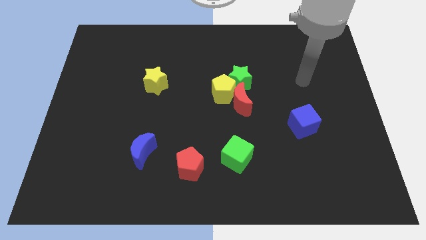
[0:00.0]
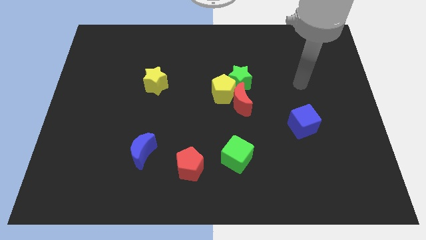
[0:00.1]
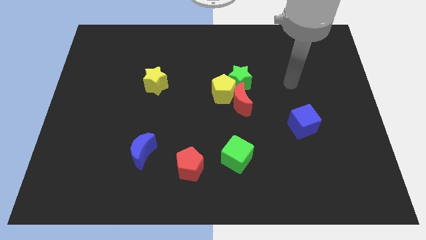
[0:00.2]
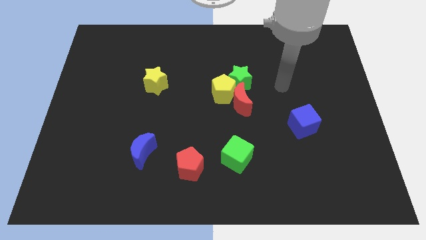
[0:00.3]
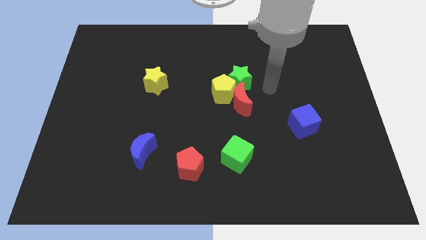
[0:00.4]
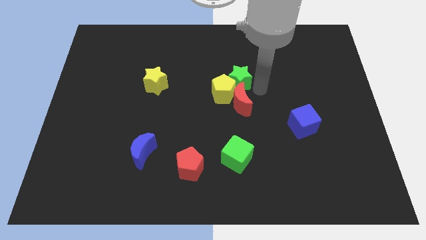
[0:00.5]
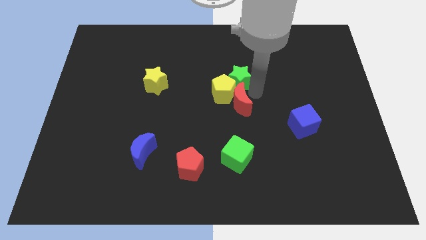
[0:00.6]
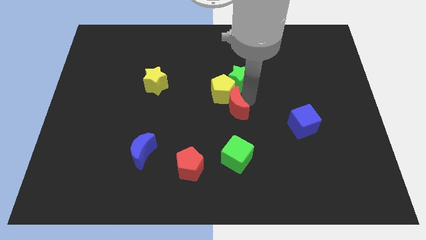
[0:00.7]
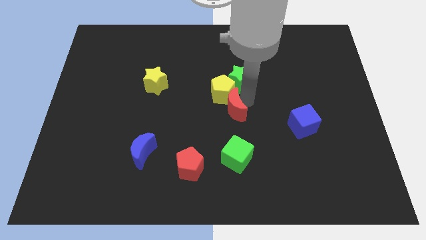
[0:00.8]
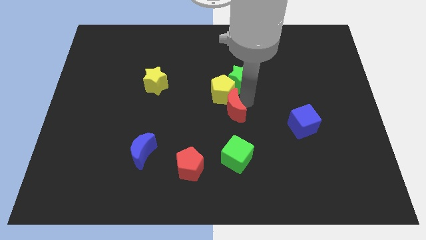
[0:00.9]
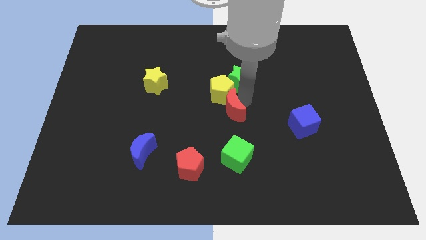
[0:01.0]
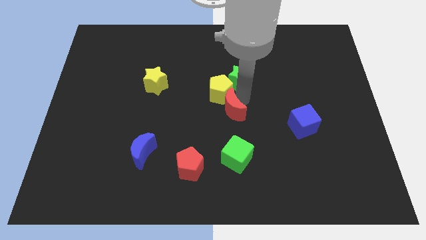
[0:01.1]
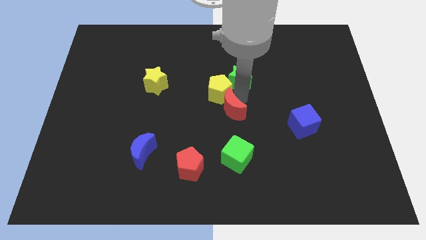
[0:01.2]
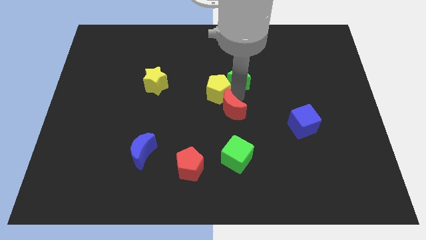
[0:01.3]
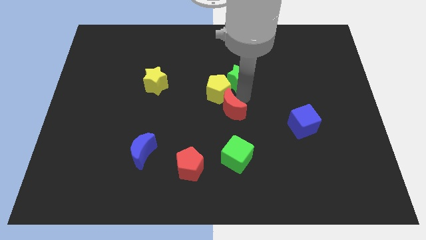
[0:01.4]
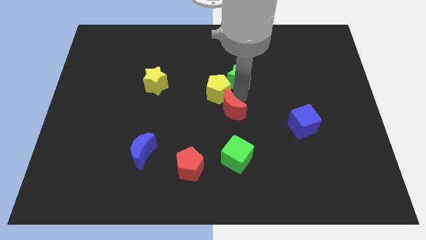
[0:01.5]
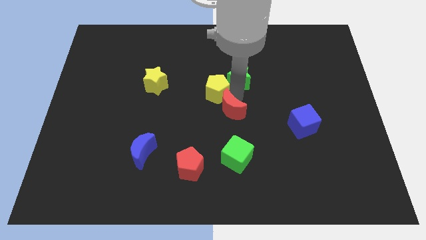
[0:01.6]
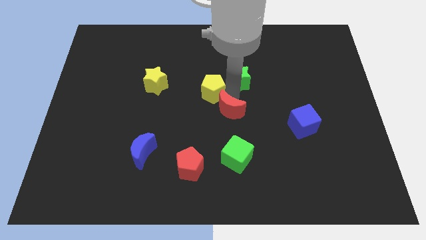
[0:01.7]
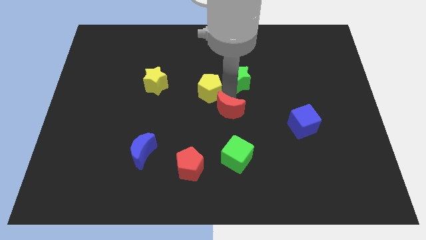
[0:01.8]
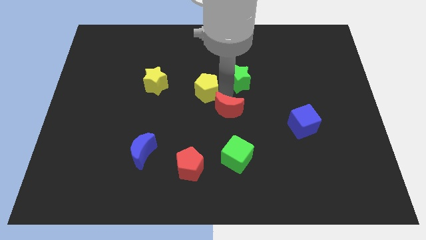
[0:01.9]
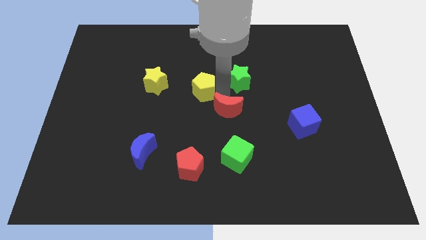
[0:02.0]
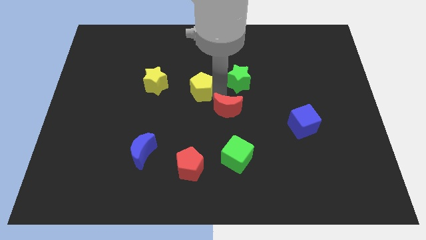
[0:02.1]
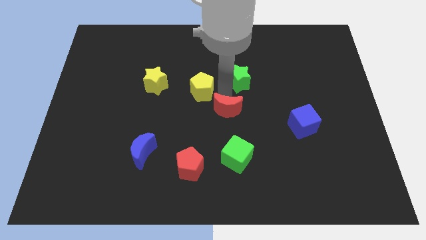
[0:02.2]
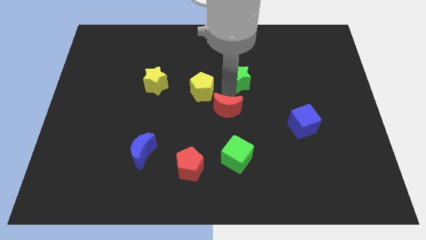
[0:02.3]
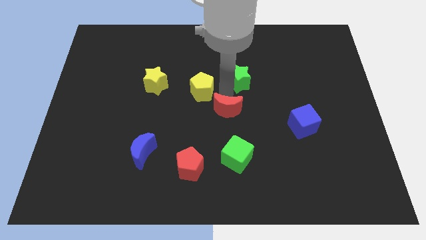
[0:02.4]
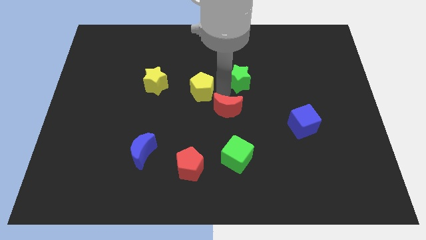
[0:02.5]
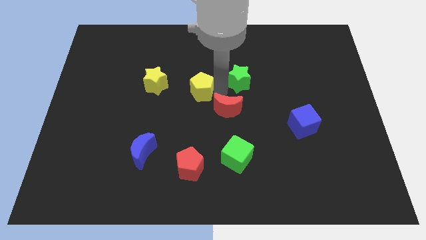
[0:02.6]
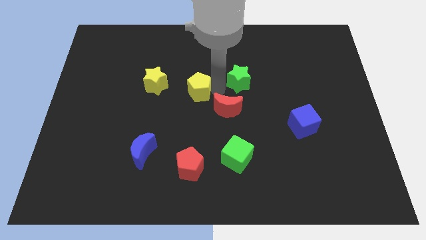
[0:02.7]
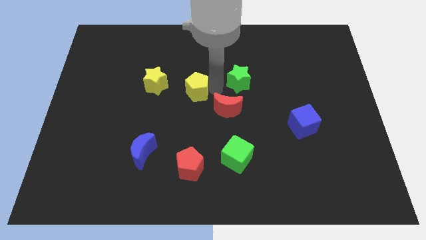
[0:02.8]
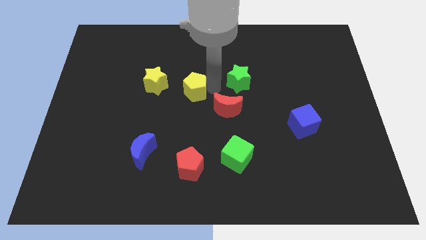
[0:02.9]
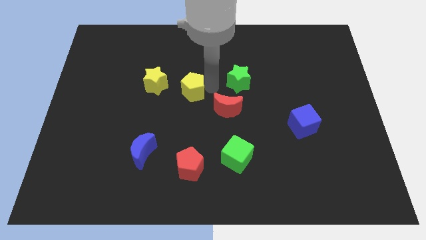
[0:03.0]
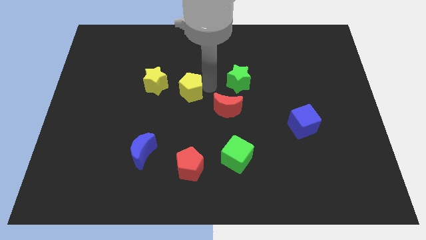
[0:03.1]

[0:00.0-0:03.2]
separate the yellow pentagon from the green star and red moon

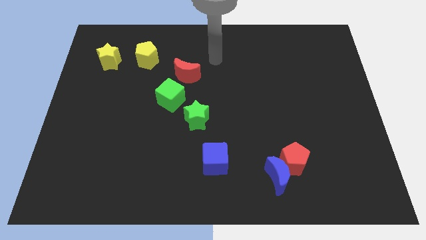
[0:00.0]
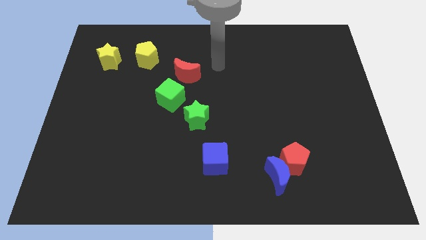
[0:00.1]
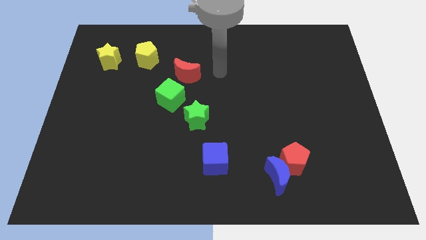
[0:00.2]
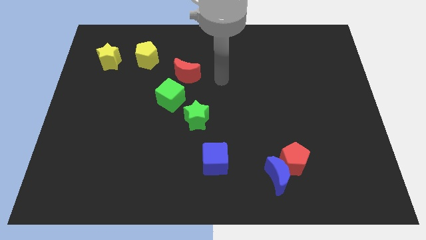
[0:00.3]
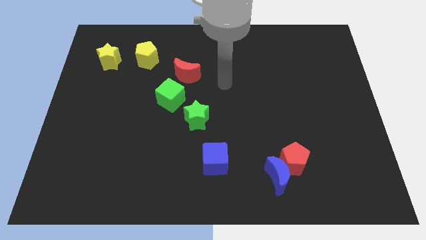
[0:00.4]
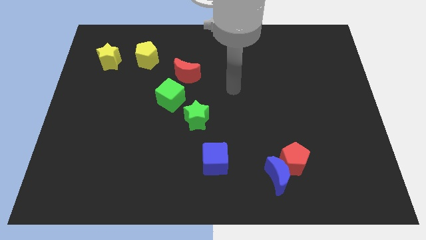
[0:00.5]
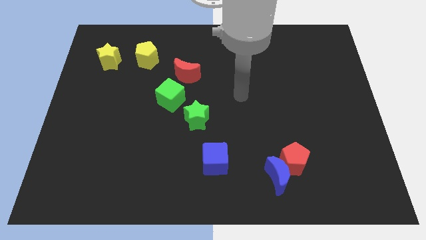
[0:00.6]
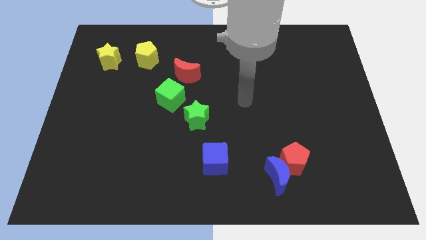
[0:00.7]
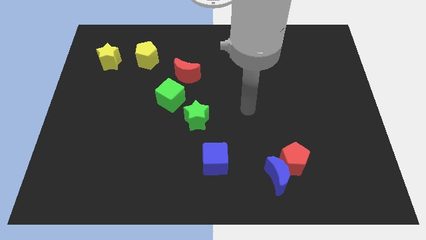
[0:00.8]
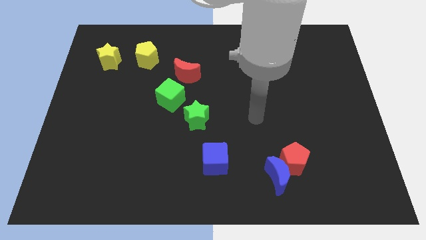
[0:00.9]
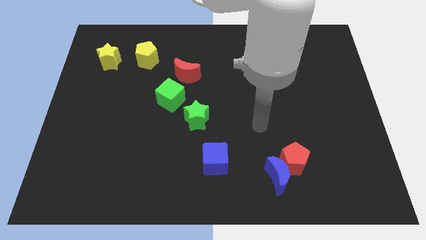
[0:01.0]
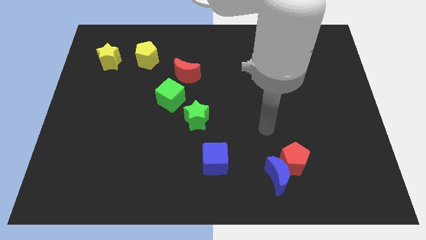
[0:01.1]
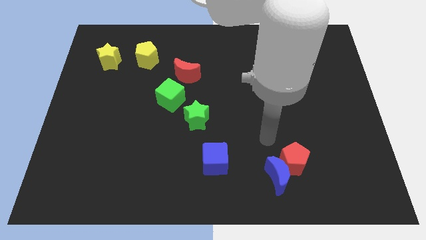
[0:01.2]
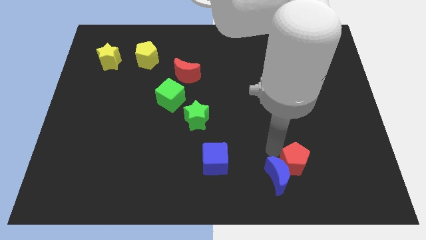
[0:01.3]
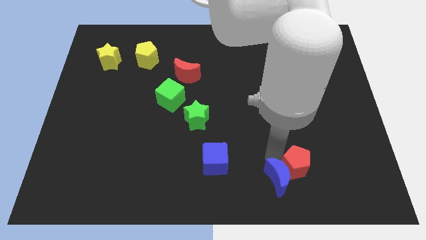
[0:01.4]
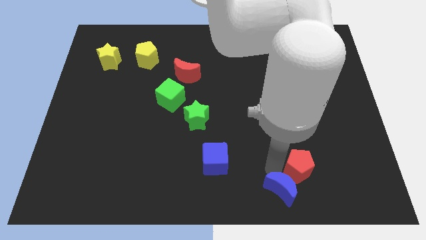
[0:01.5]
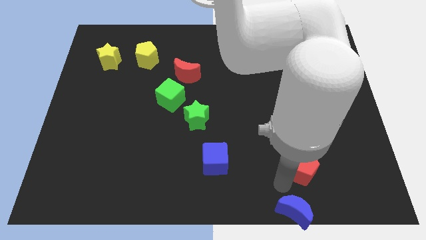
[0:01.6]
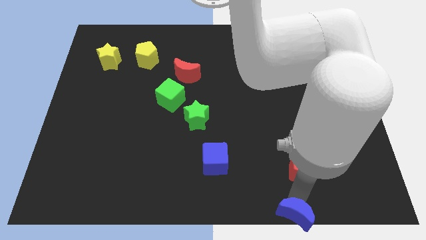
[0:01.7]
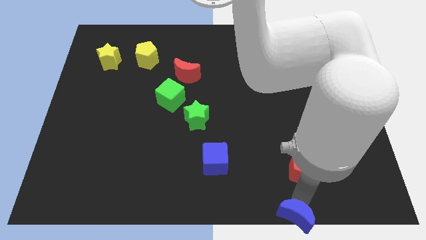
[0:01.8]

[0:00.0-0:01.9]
separate the red pentagon from the blue moon

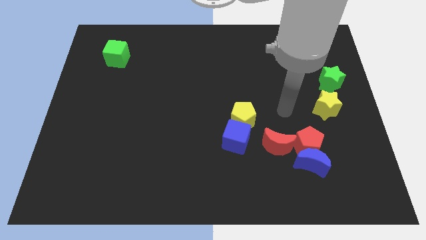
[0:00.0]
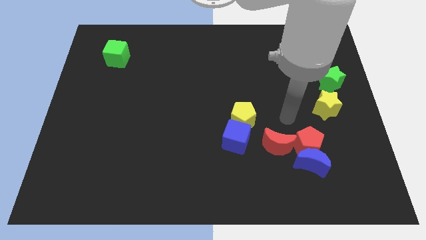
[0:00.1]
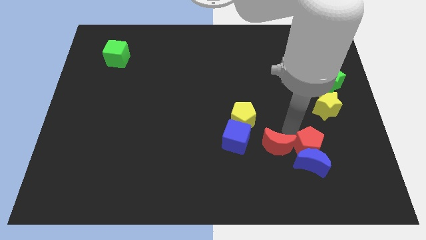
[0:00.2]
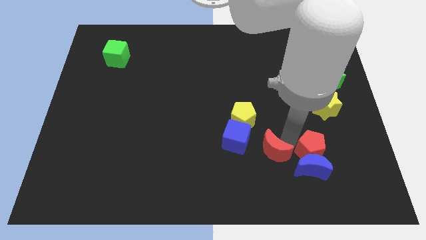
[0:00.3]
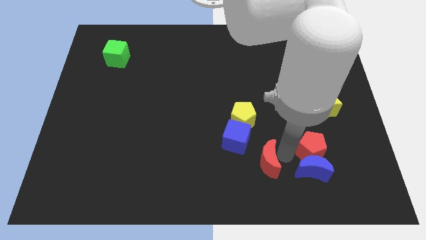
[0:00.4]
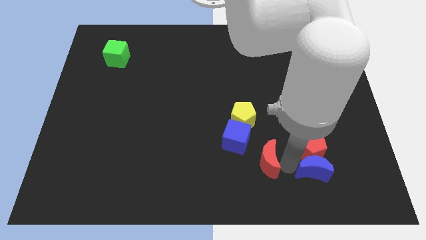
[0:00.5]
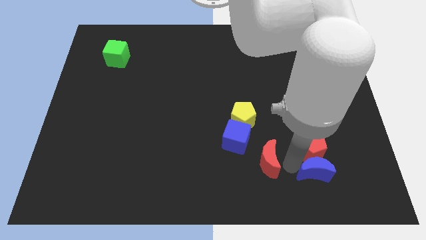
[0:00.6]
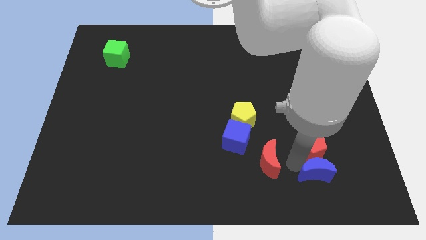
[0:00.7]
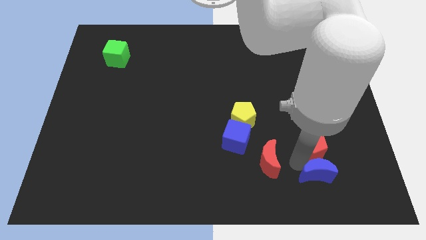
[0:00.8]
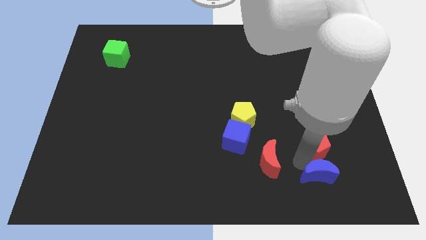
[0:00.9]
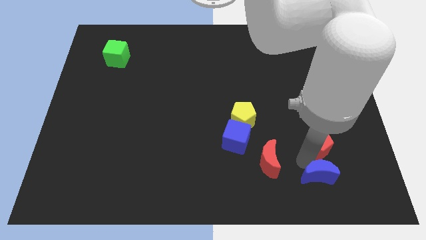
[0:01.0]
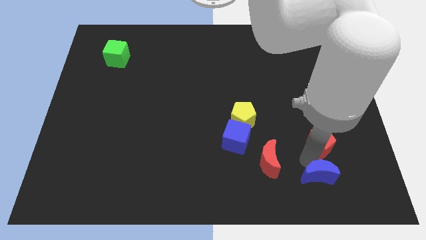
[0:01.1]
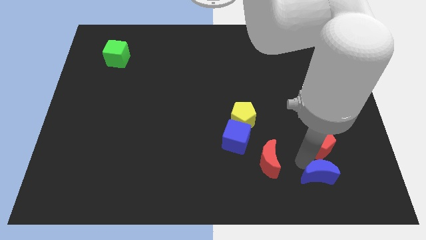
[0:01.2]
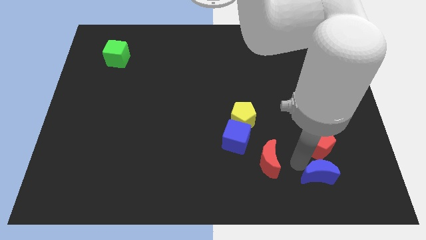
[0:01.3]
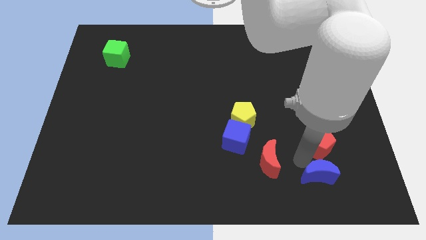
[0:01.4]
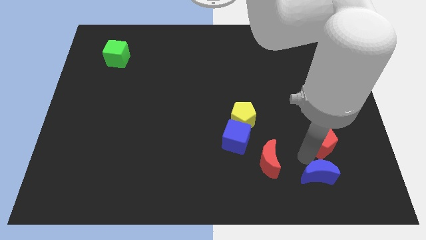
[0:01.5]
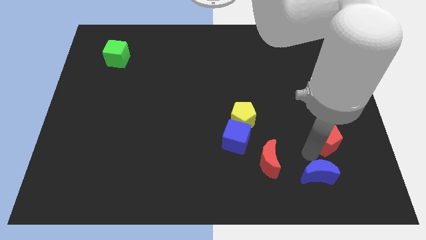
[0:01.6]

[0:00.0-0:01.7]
move the red pentagon away from the blue moon and red moon

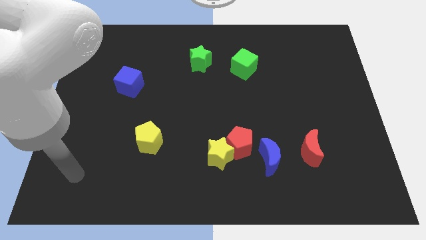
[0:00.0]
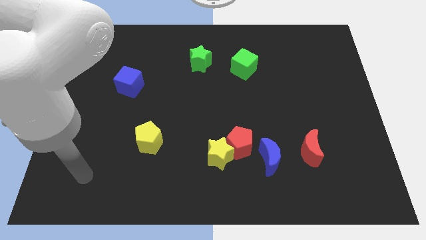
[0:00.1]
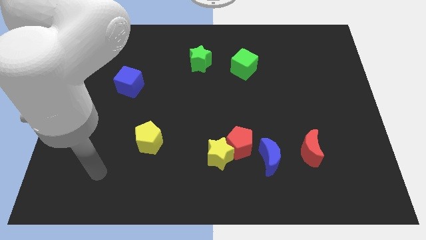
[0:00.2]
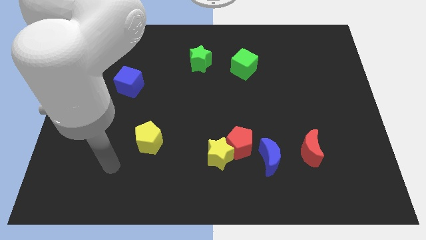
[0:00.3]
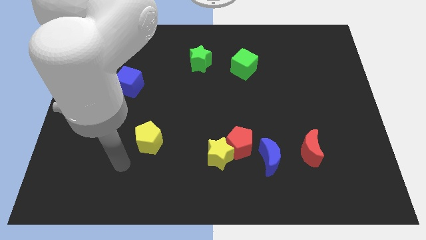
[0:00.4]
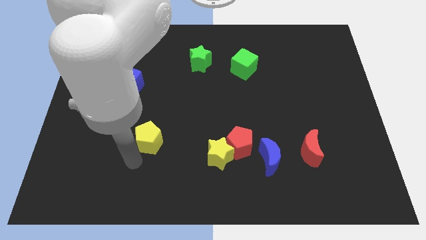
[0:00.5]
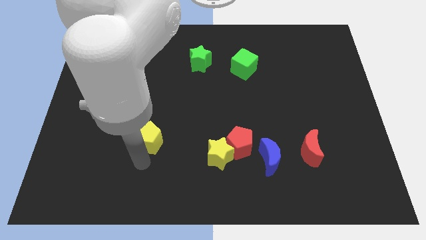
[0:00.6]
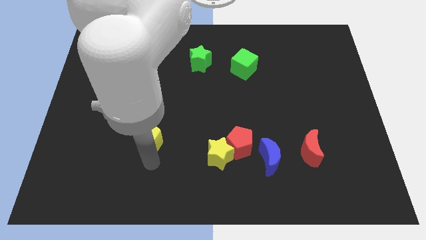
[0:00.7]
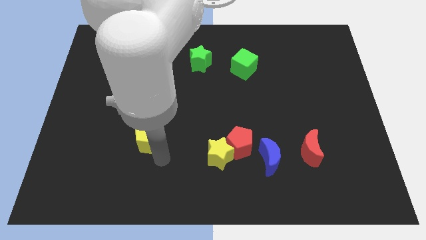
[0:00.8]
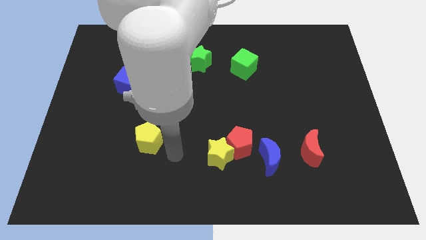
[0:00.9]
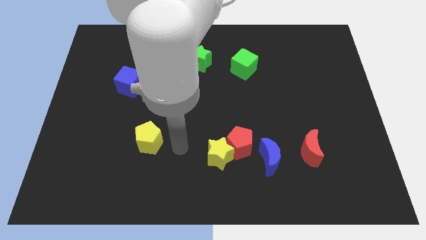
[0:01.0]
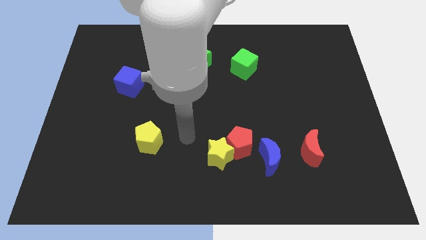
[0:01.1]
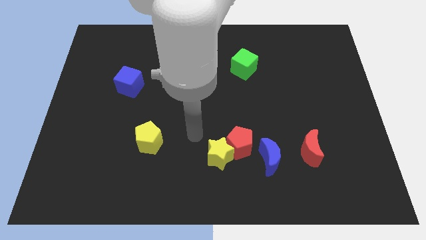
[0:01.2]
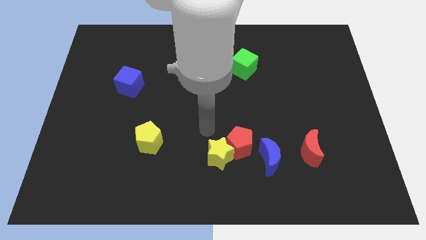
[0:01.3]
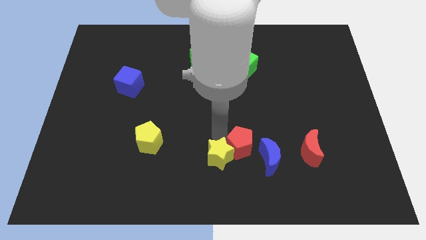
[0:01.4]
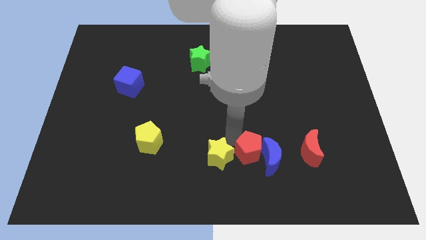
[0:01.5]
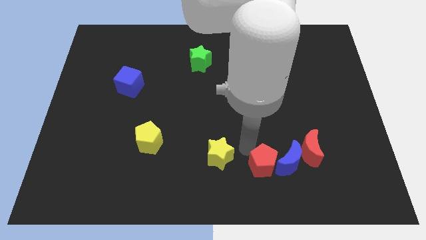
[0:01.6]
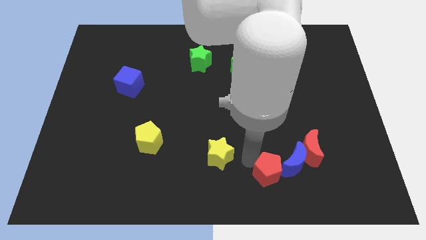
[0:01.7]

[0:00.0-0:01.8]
separate the yellow star from the red pentagon

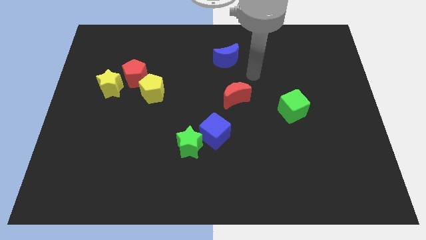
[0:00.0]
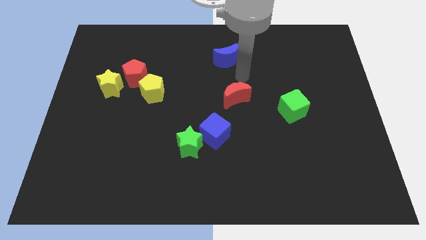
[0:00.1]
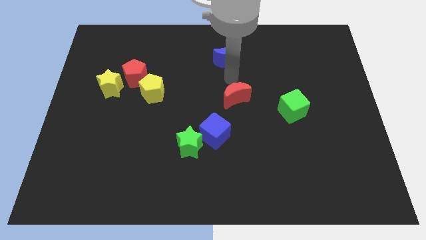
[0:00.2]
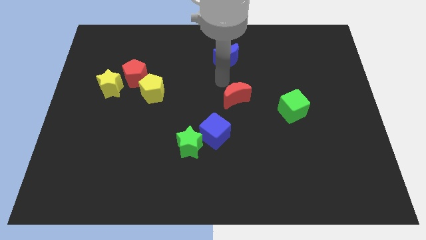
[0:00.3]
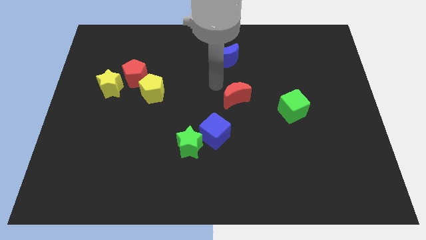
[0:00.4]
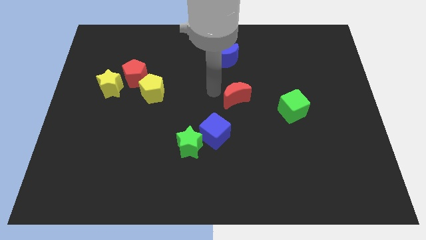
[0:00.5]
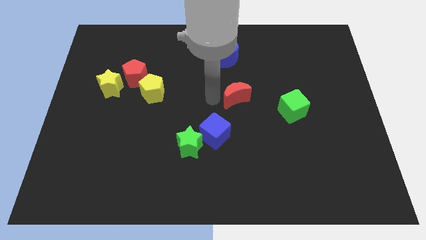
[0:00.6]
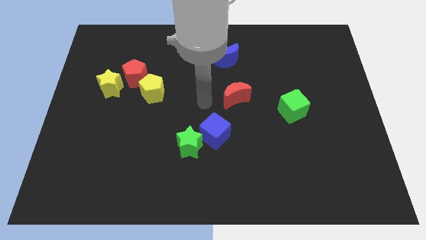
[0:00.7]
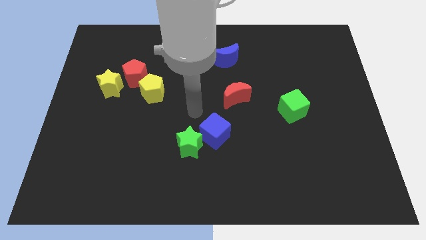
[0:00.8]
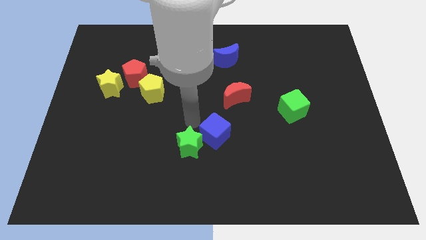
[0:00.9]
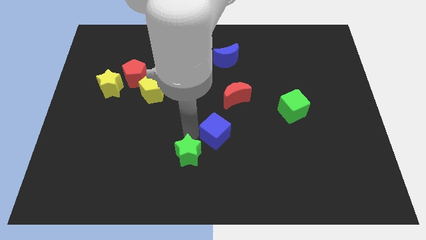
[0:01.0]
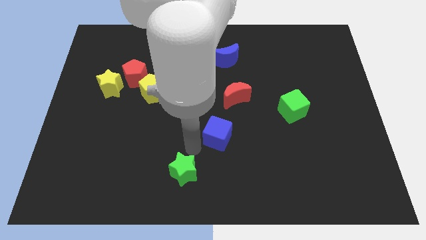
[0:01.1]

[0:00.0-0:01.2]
move the blue cube away from the green star
